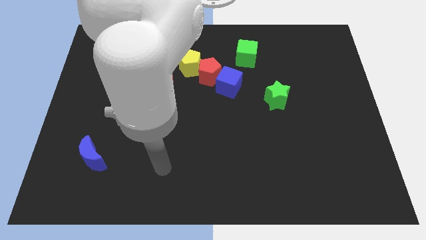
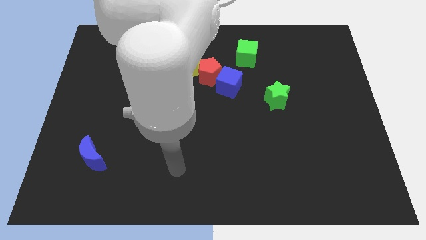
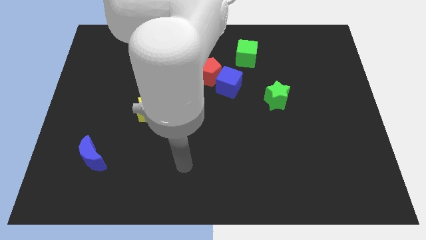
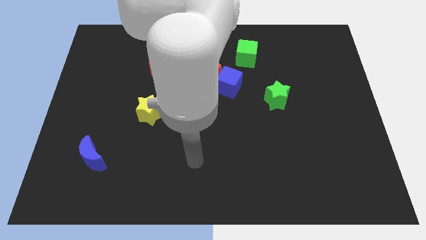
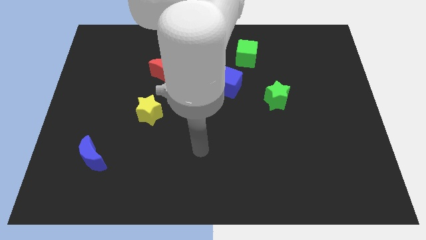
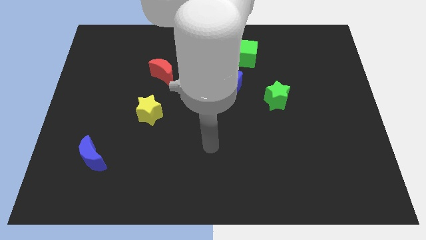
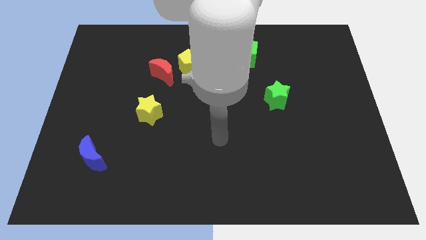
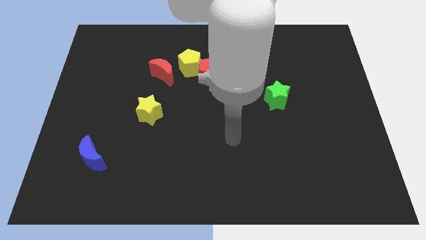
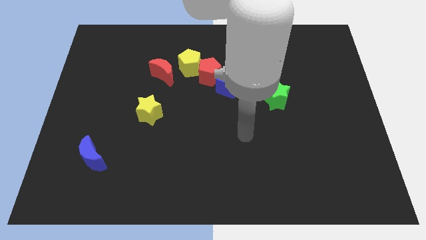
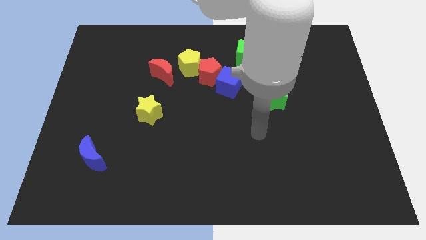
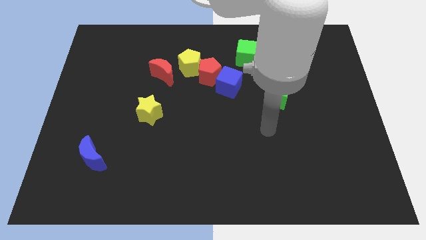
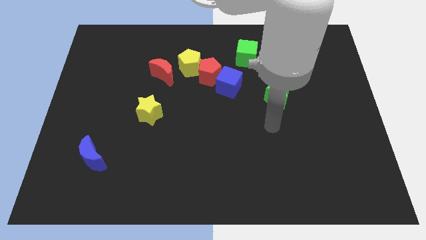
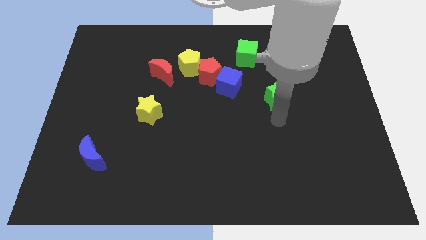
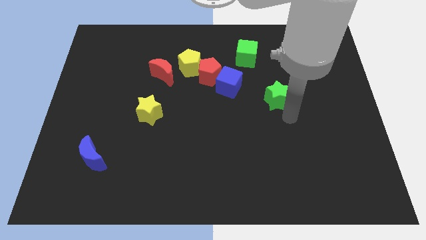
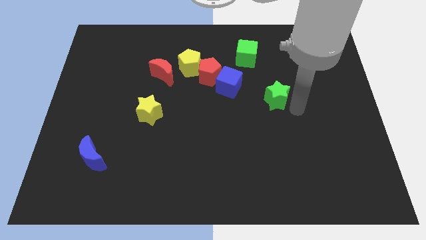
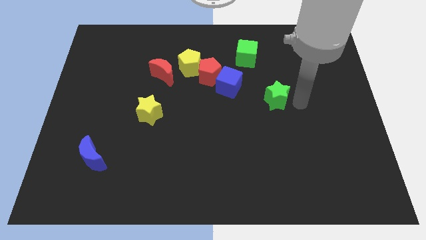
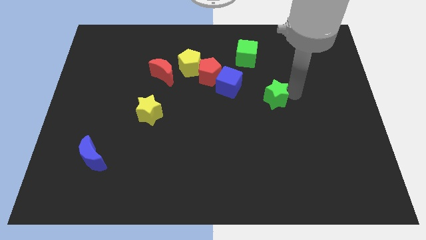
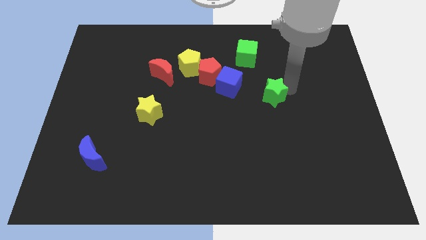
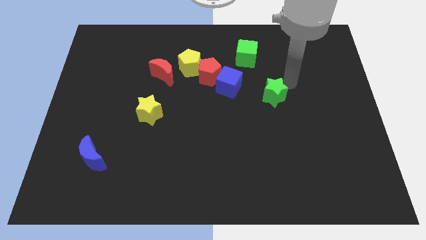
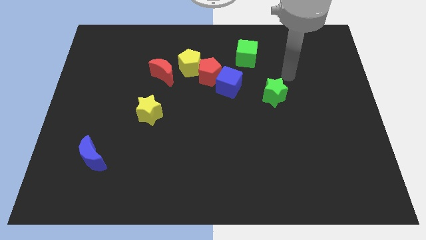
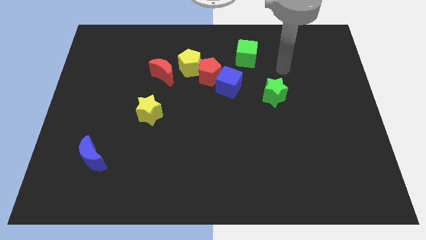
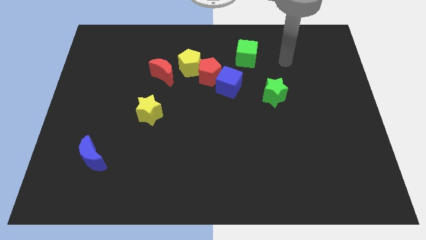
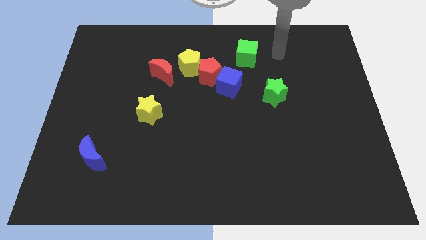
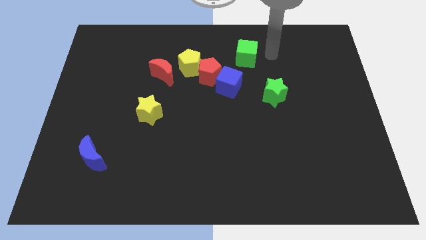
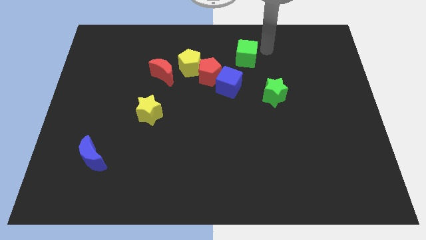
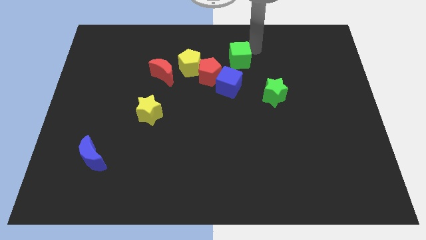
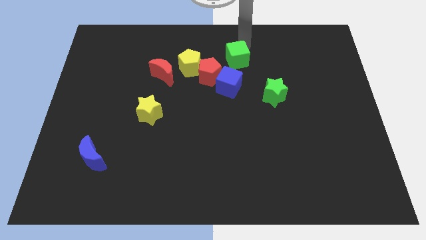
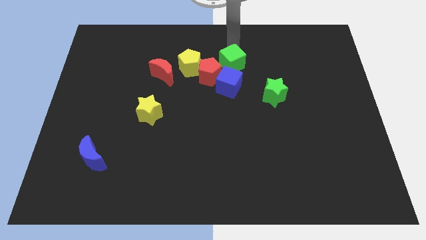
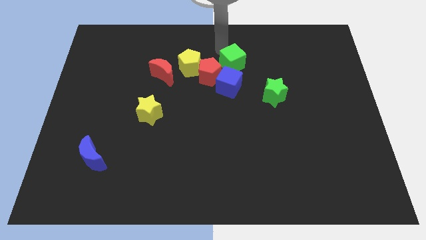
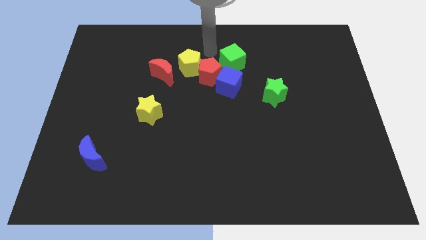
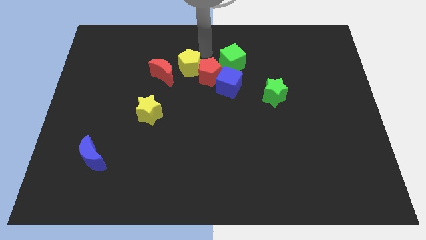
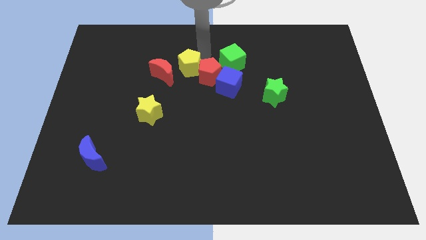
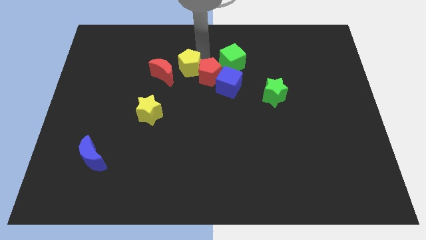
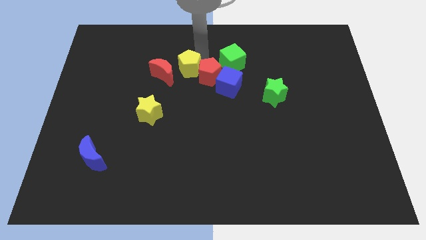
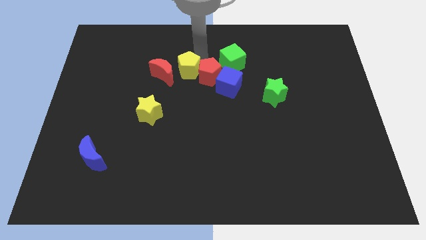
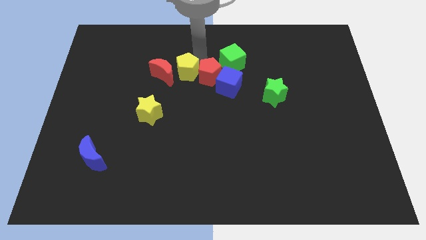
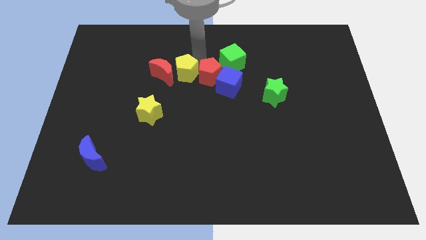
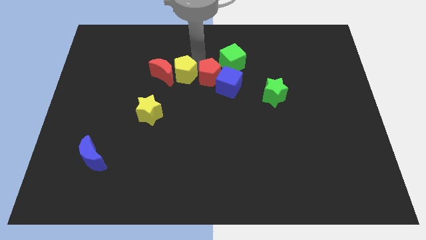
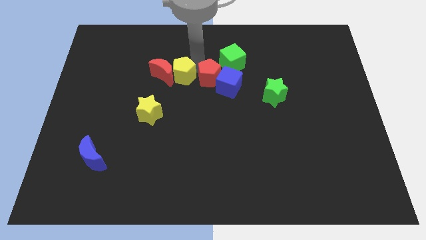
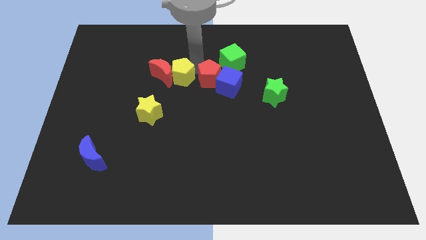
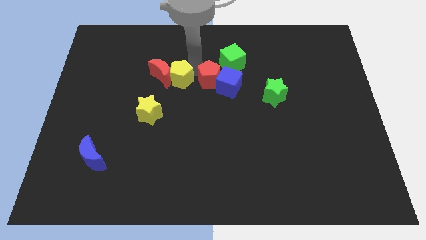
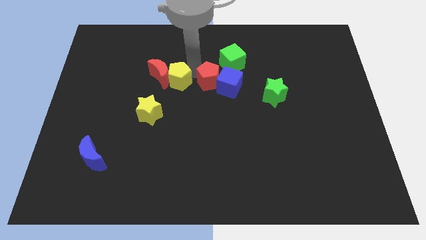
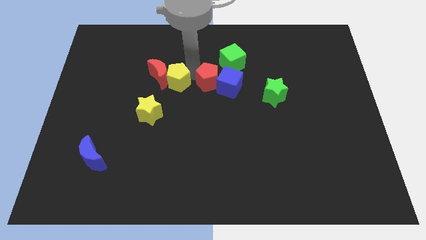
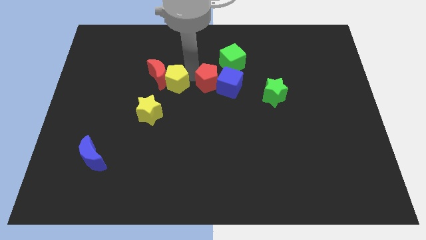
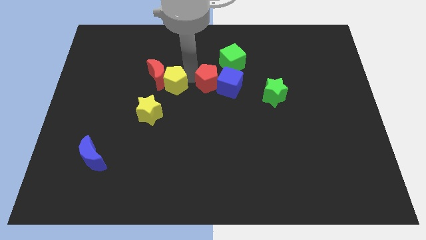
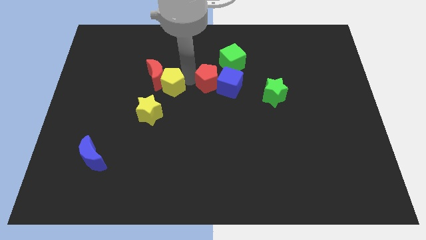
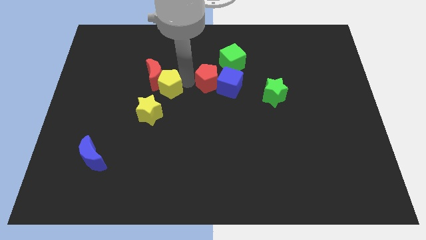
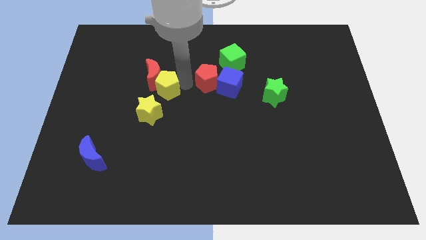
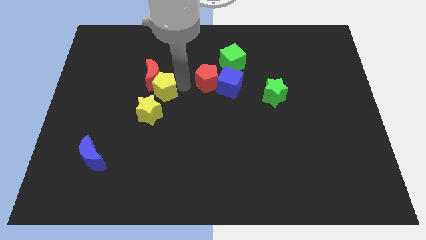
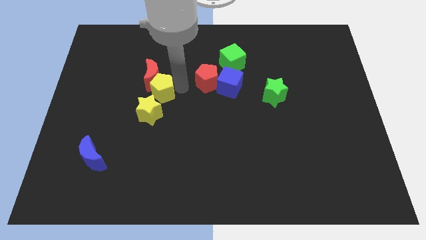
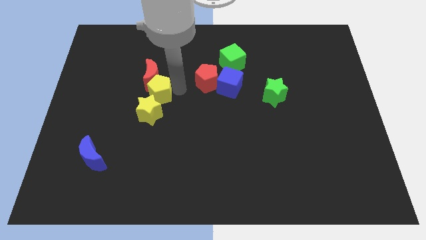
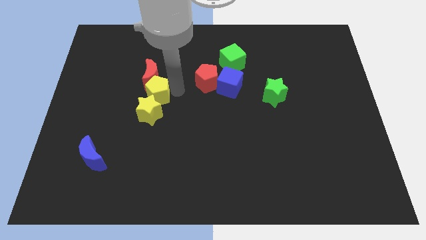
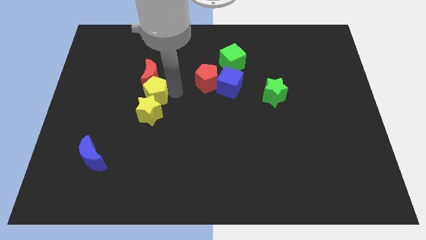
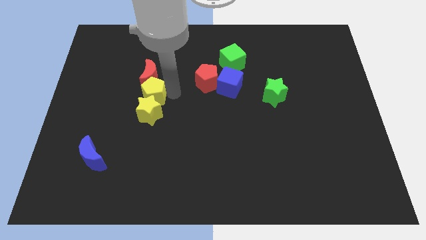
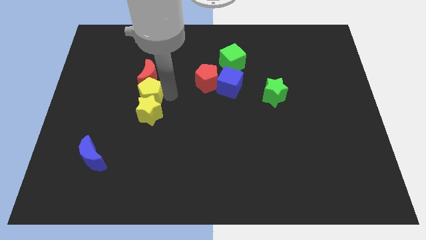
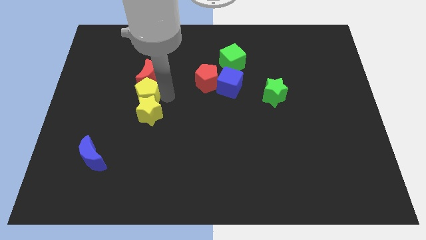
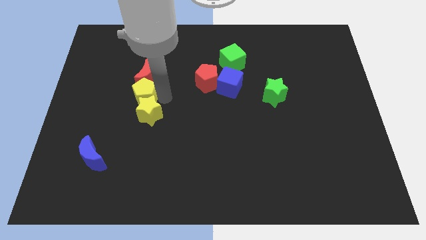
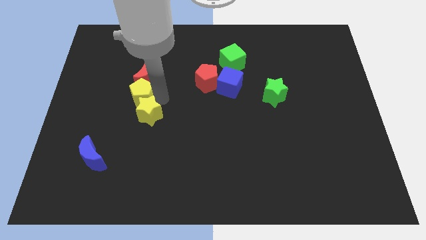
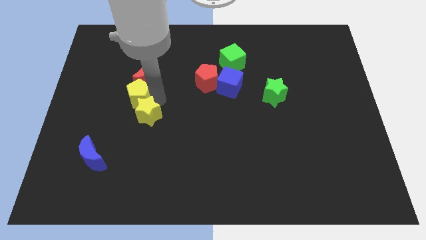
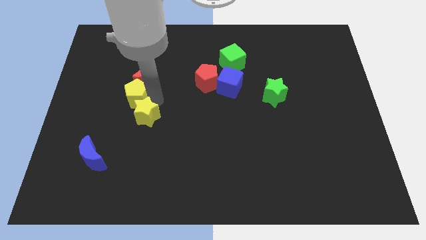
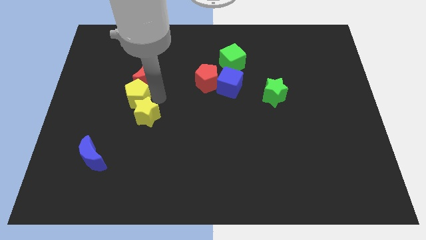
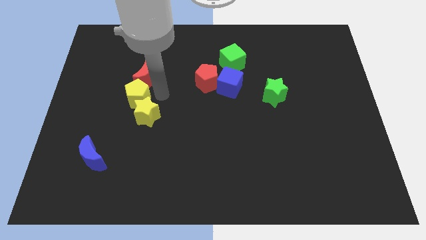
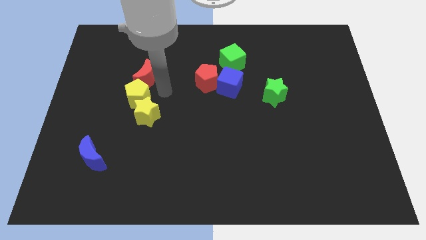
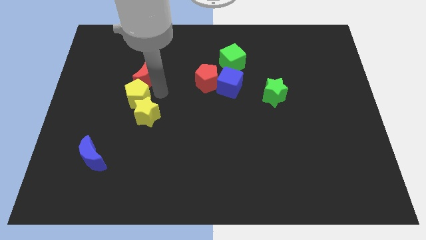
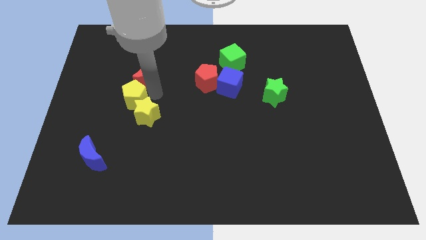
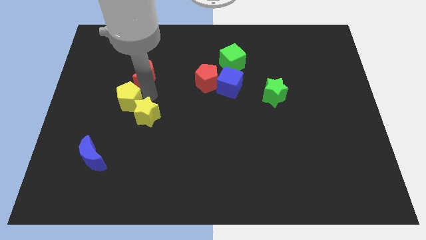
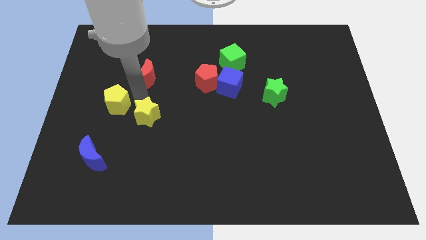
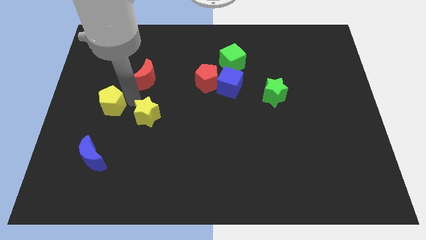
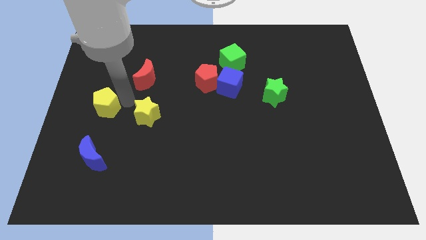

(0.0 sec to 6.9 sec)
push the yellow pentagon to the left side of the board
